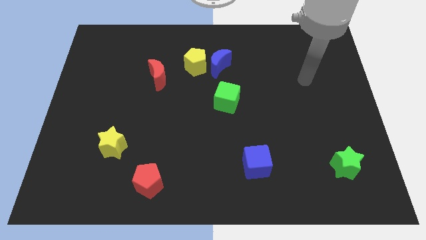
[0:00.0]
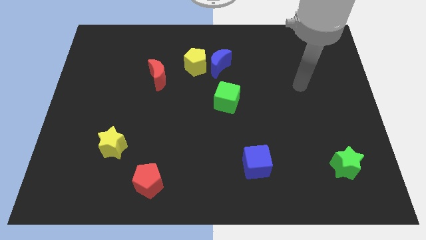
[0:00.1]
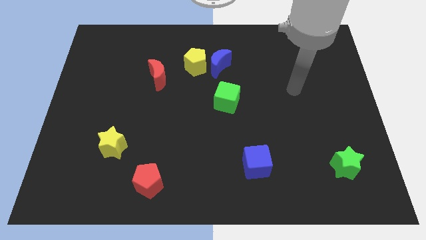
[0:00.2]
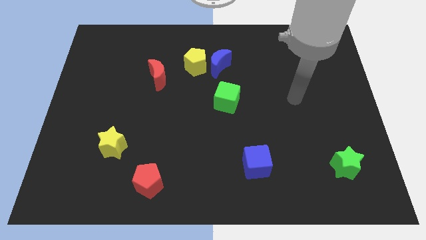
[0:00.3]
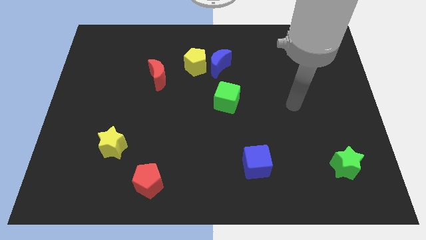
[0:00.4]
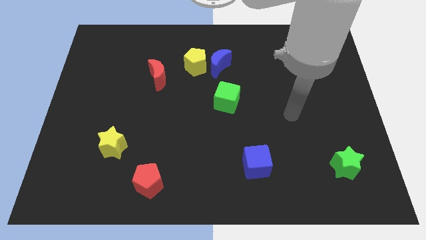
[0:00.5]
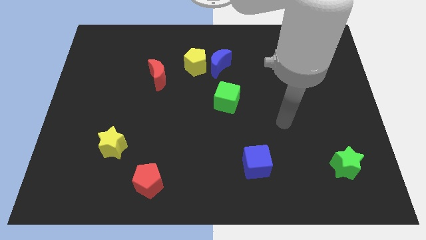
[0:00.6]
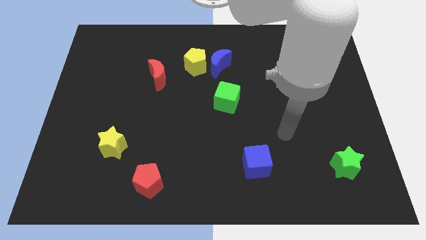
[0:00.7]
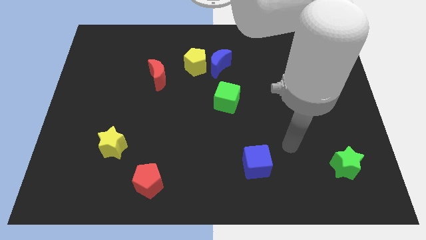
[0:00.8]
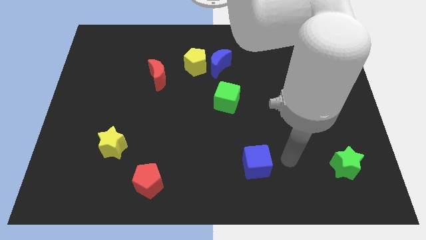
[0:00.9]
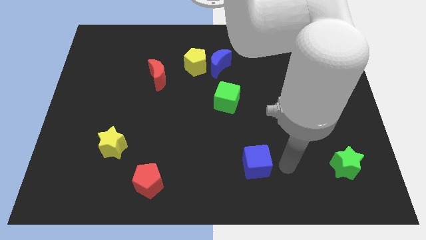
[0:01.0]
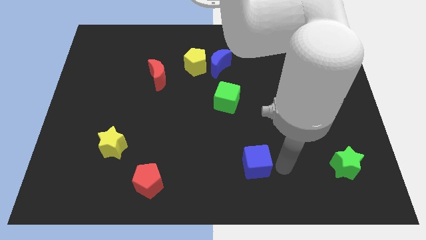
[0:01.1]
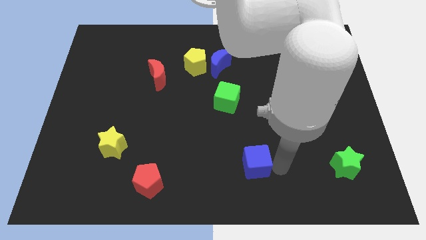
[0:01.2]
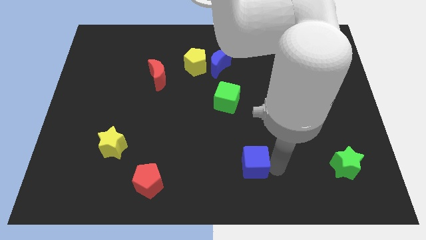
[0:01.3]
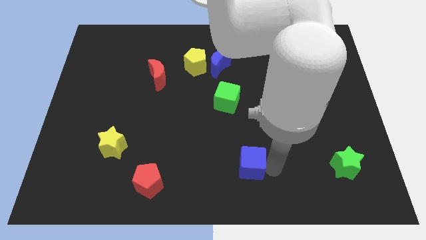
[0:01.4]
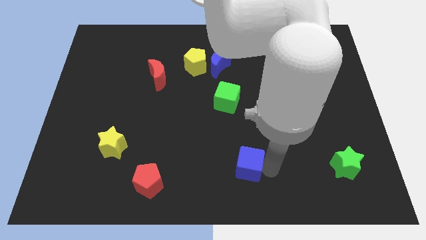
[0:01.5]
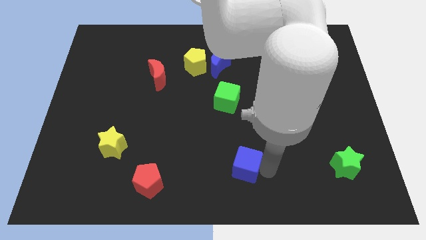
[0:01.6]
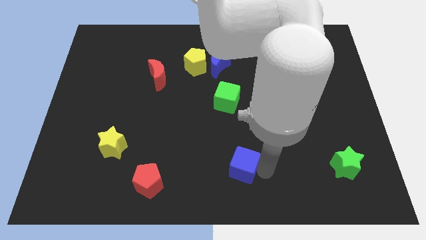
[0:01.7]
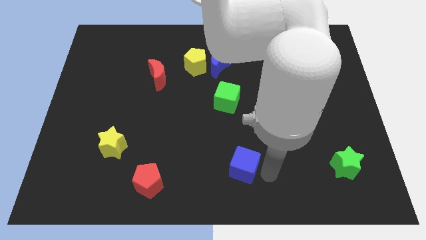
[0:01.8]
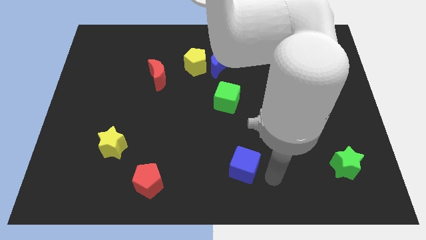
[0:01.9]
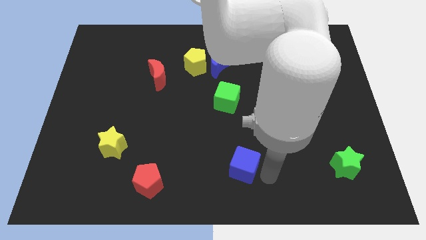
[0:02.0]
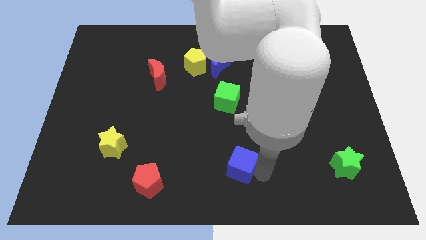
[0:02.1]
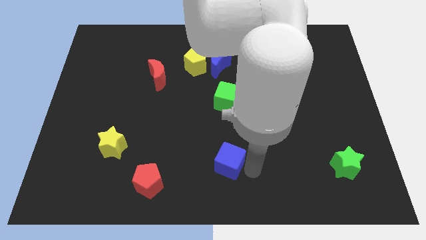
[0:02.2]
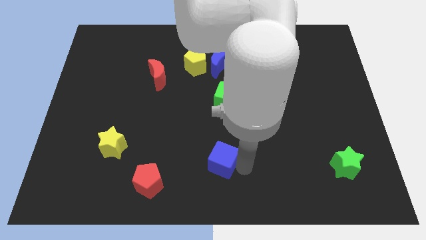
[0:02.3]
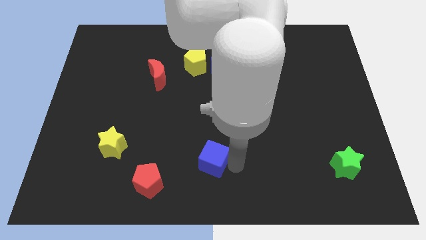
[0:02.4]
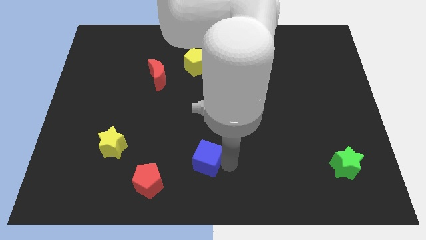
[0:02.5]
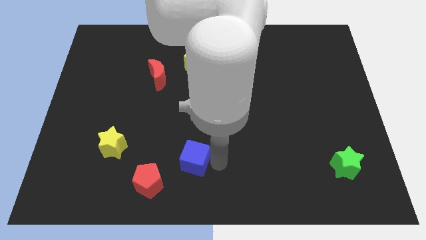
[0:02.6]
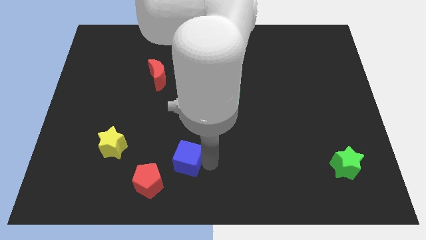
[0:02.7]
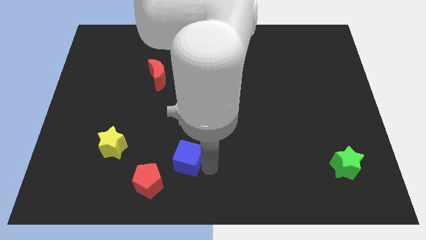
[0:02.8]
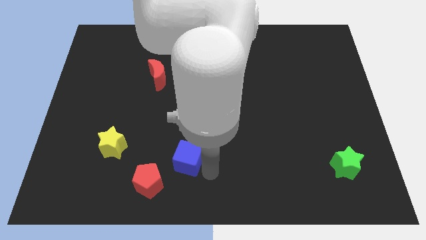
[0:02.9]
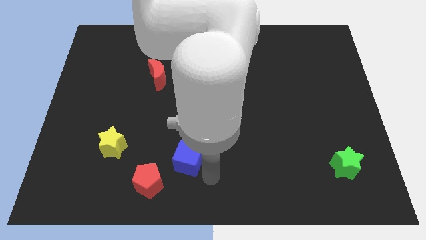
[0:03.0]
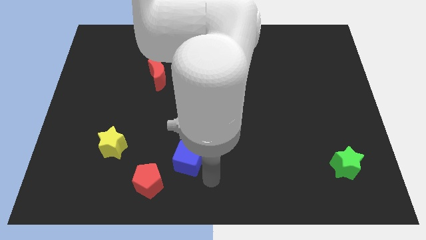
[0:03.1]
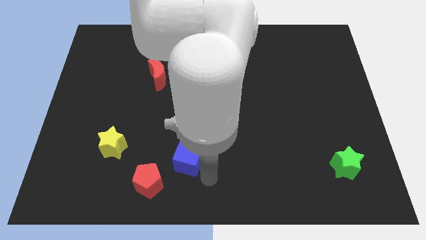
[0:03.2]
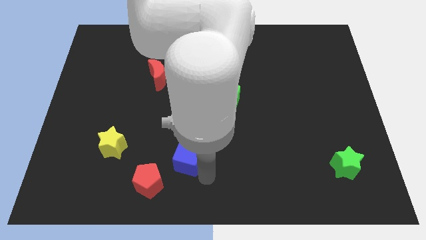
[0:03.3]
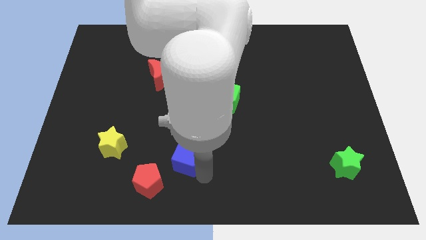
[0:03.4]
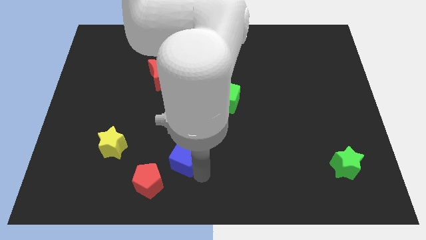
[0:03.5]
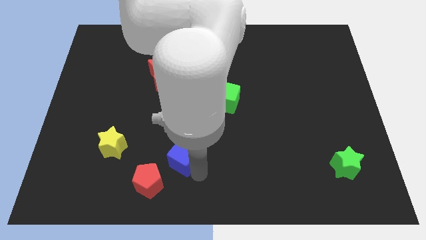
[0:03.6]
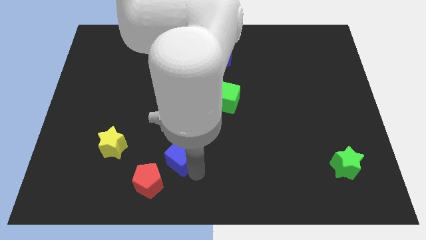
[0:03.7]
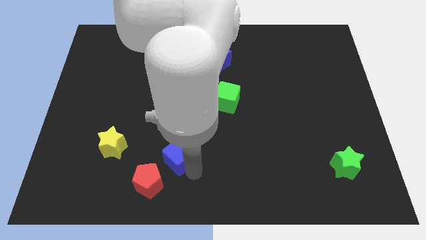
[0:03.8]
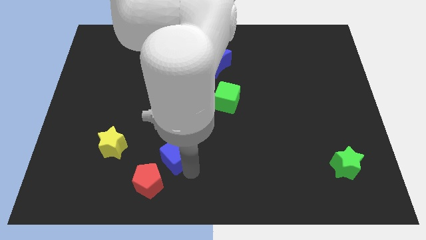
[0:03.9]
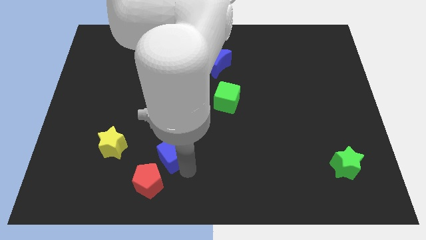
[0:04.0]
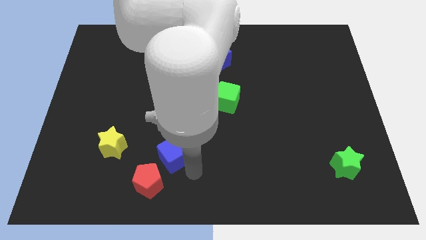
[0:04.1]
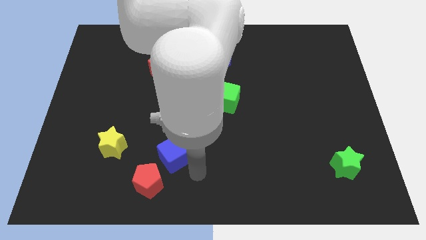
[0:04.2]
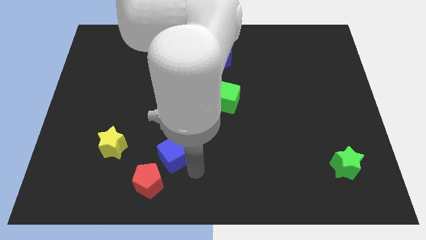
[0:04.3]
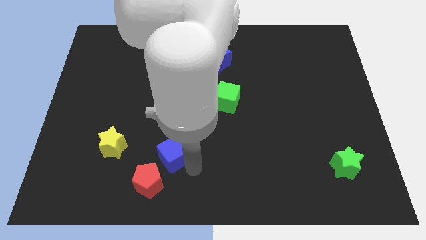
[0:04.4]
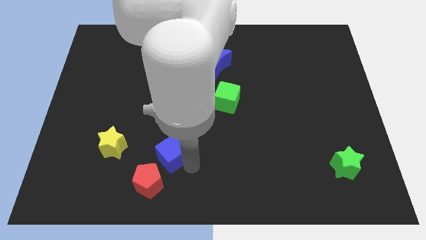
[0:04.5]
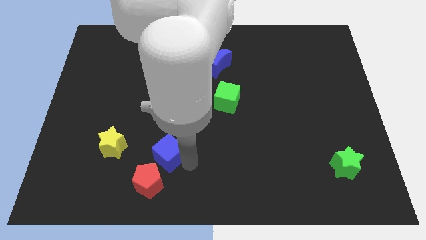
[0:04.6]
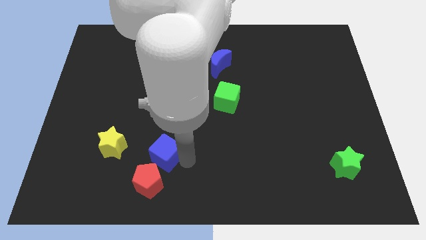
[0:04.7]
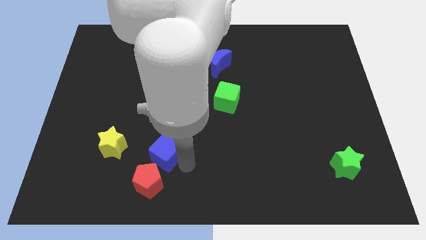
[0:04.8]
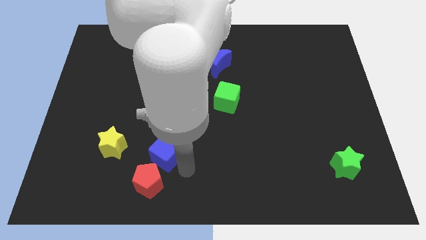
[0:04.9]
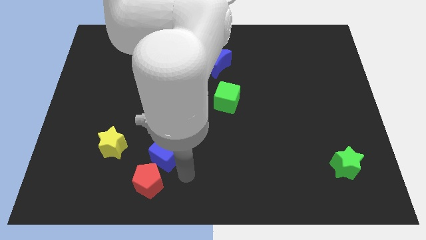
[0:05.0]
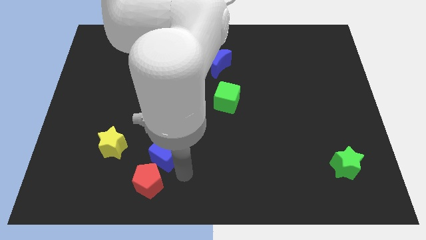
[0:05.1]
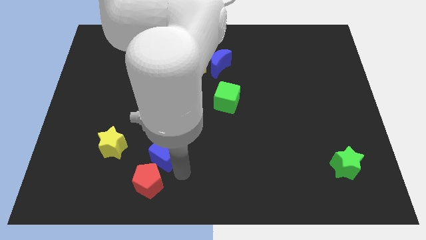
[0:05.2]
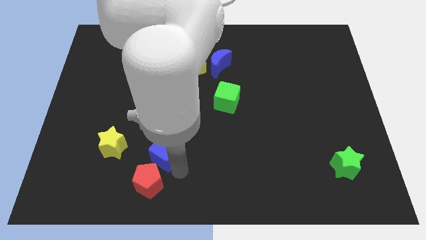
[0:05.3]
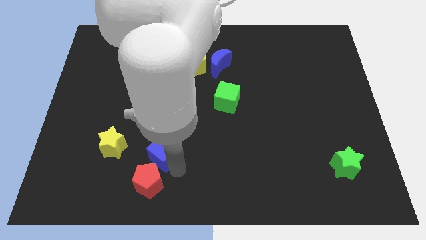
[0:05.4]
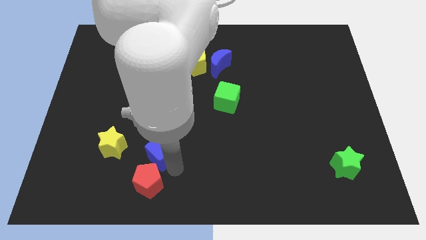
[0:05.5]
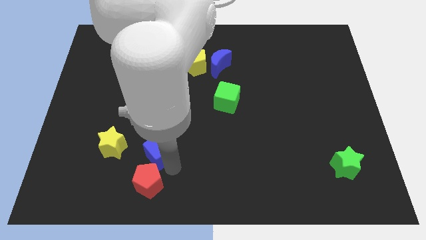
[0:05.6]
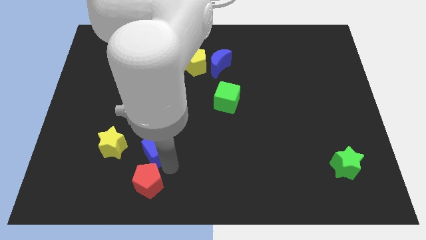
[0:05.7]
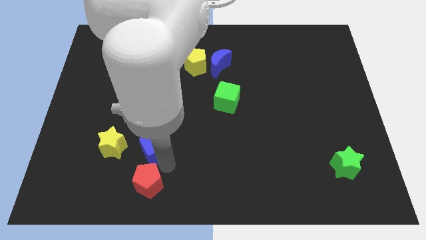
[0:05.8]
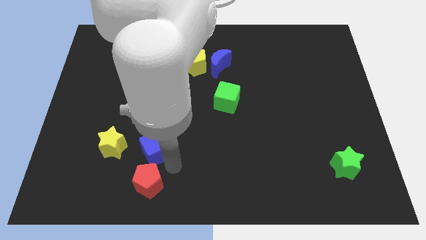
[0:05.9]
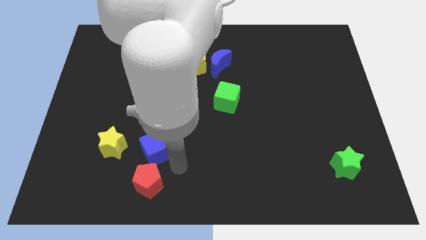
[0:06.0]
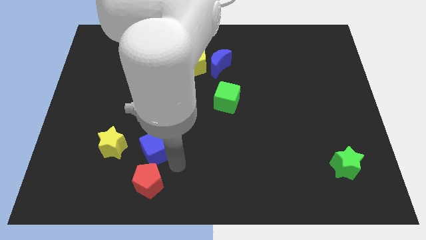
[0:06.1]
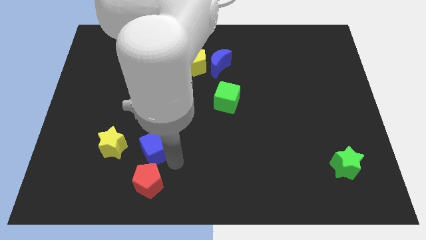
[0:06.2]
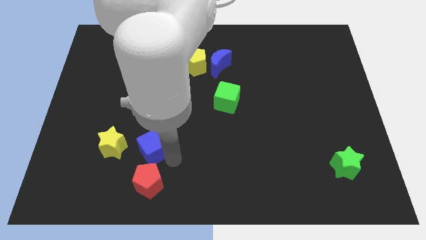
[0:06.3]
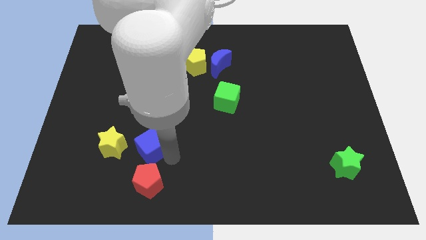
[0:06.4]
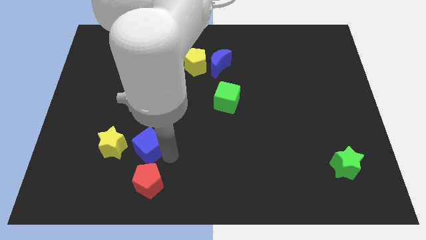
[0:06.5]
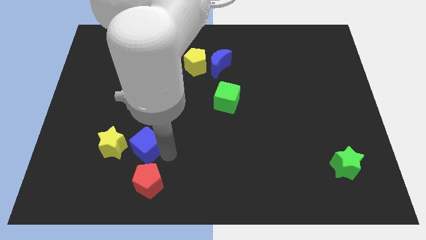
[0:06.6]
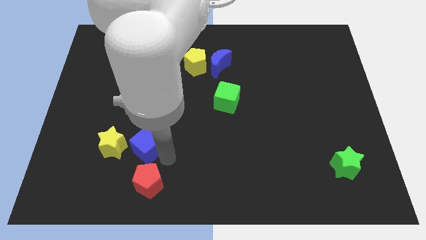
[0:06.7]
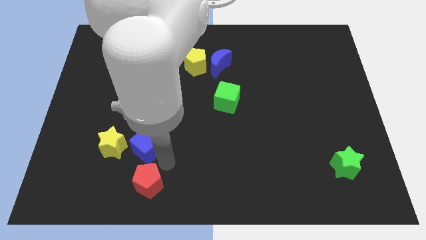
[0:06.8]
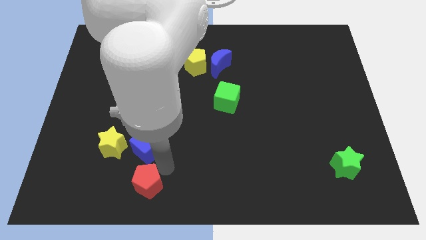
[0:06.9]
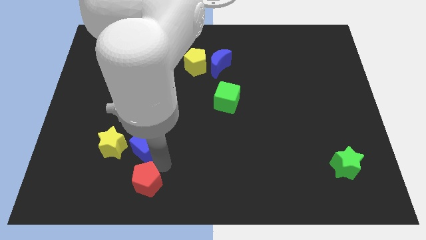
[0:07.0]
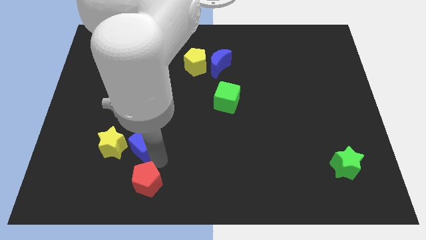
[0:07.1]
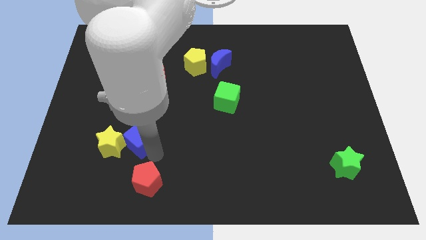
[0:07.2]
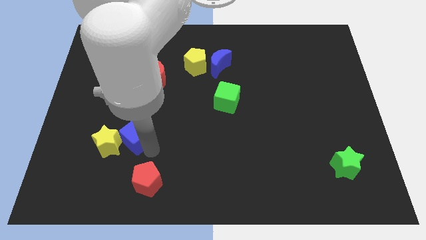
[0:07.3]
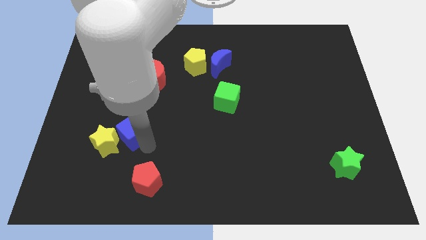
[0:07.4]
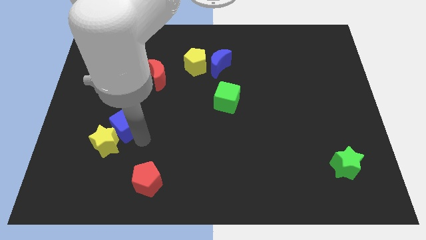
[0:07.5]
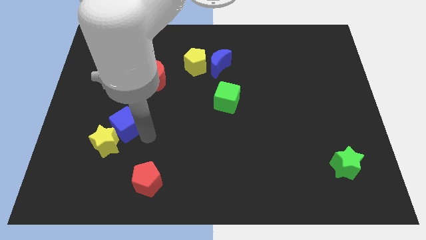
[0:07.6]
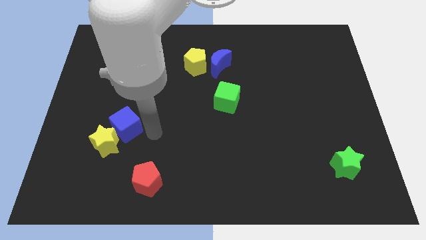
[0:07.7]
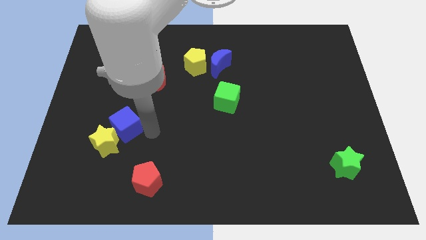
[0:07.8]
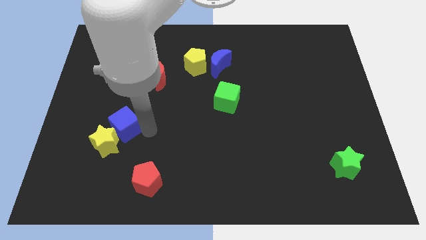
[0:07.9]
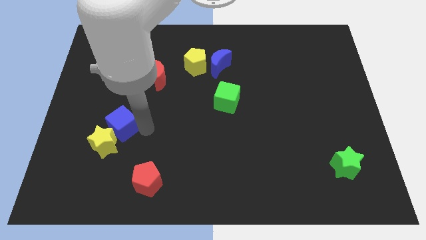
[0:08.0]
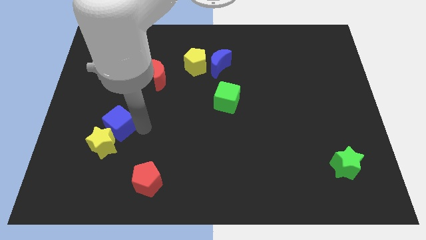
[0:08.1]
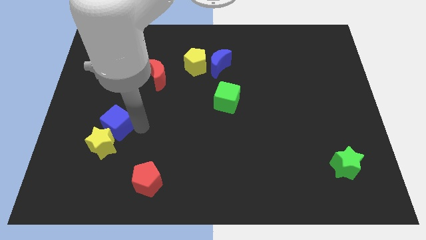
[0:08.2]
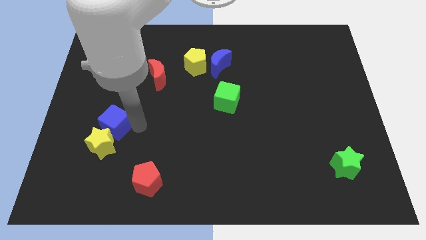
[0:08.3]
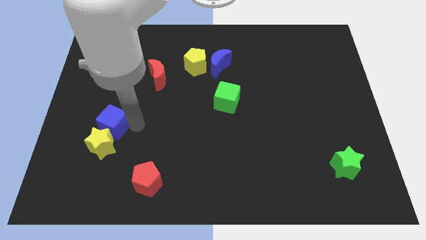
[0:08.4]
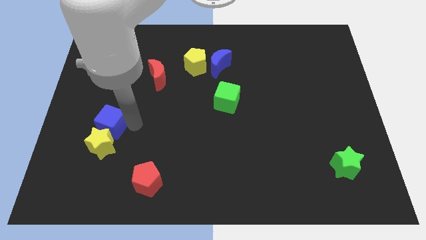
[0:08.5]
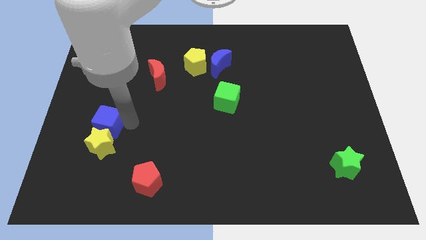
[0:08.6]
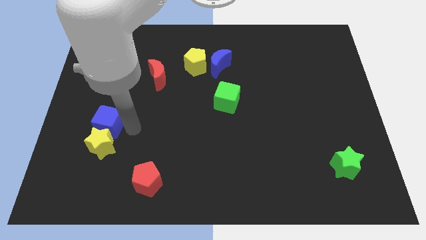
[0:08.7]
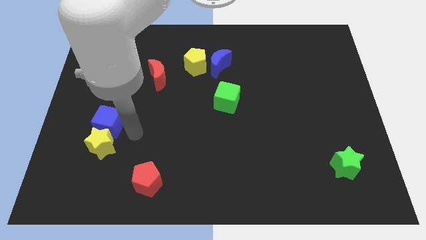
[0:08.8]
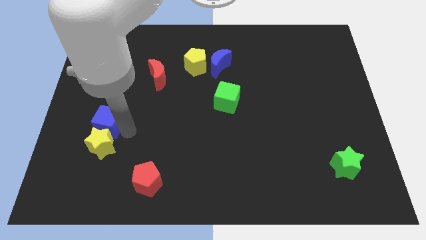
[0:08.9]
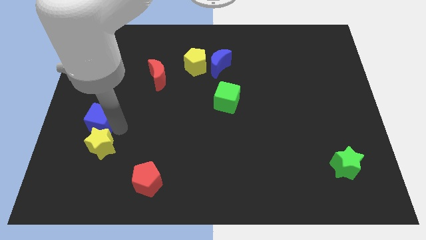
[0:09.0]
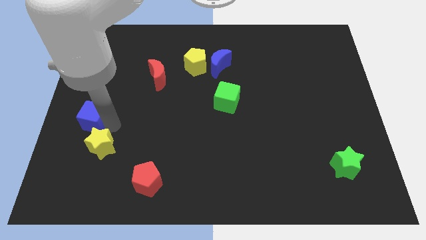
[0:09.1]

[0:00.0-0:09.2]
put the blue cube to the left side of the board
